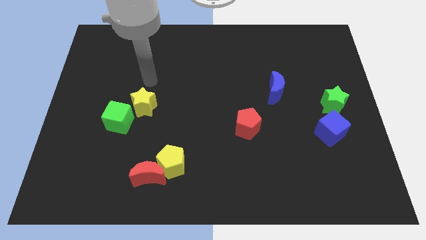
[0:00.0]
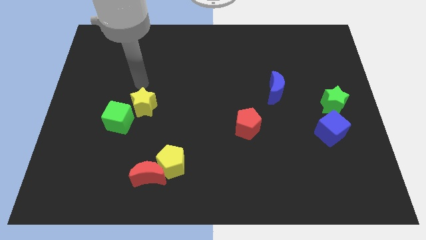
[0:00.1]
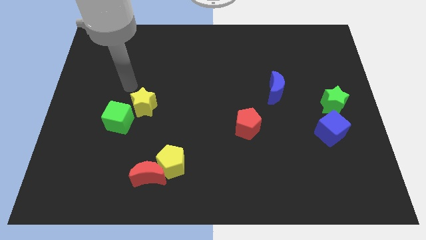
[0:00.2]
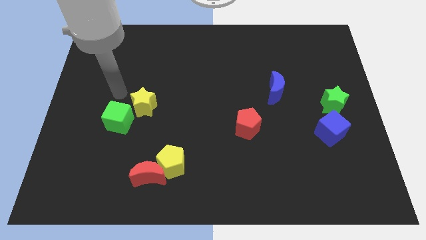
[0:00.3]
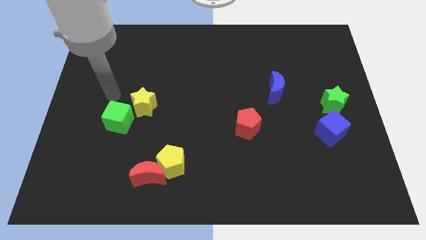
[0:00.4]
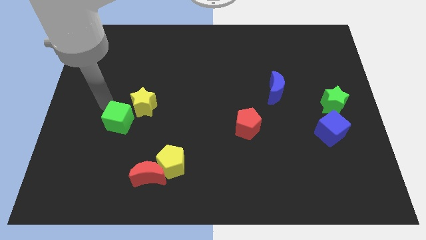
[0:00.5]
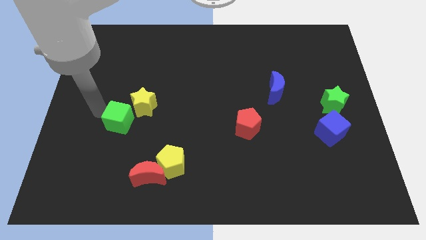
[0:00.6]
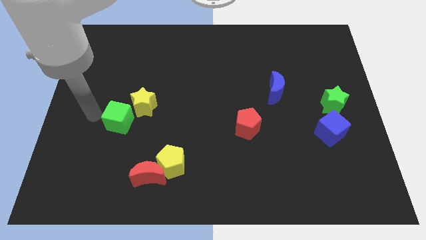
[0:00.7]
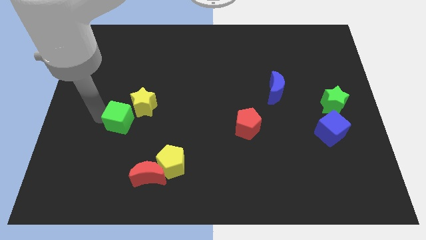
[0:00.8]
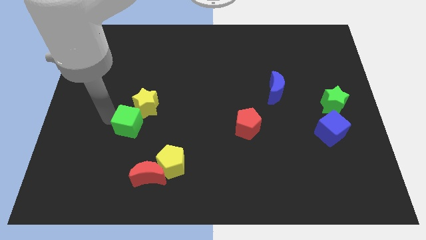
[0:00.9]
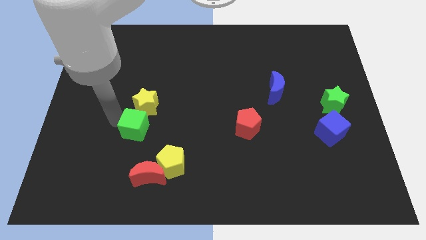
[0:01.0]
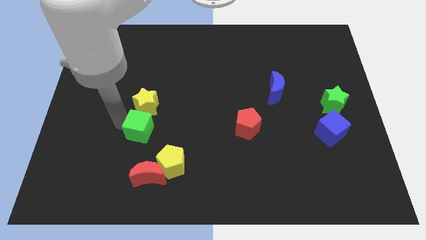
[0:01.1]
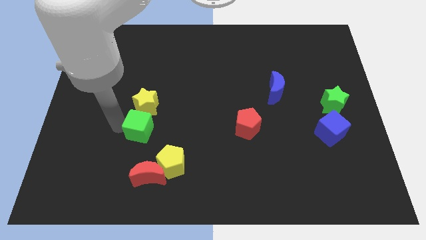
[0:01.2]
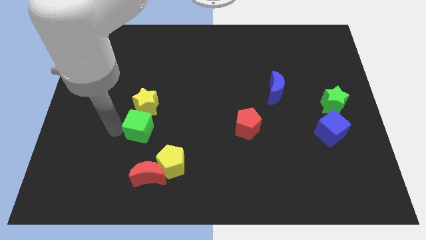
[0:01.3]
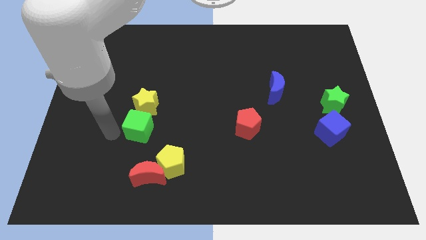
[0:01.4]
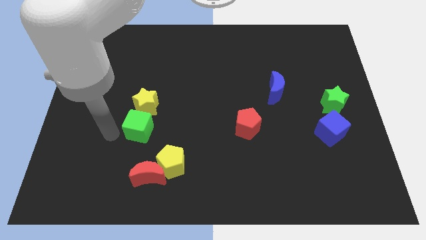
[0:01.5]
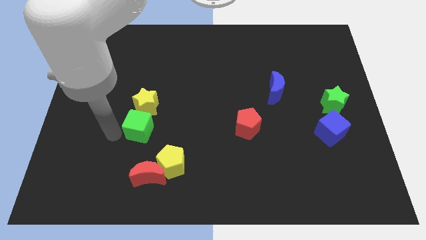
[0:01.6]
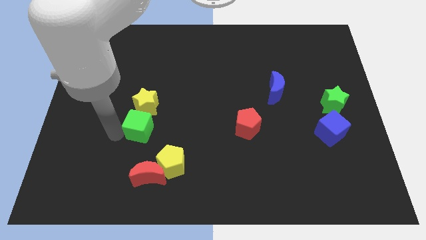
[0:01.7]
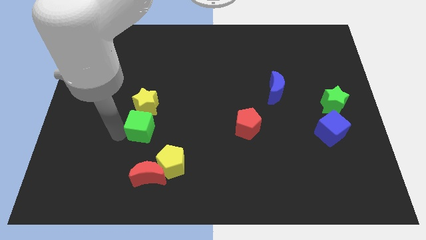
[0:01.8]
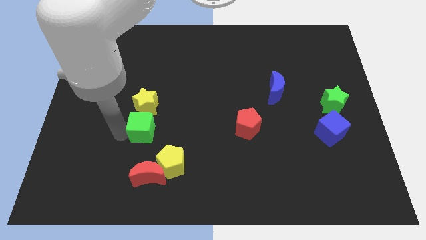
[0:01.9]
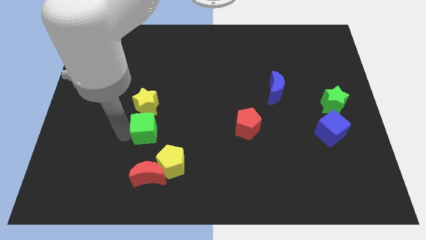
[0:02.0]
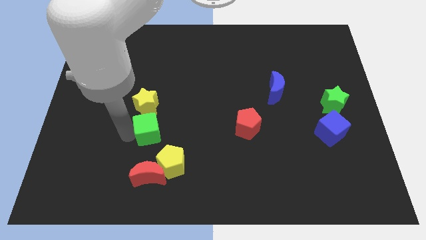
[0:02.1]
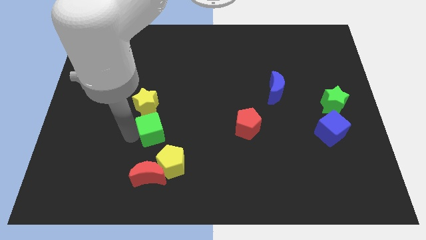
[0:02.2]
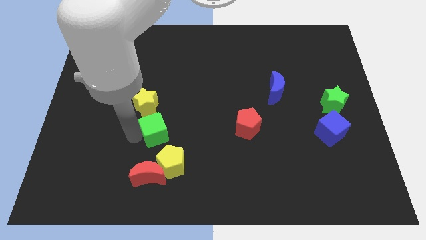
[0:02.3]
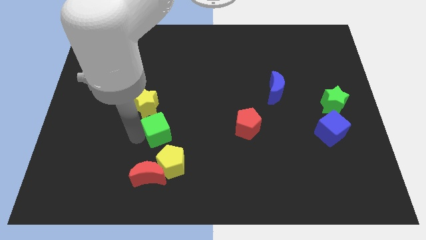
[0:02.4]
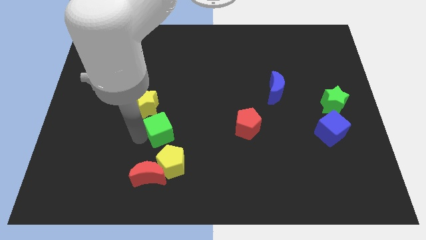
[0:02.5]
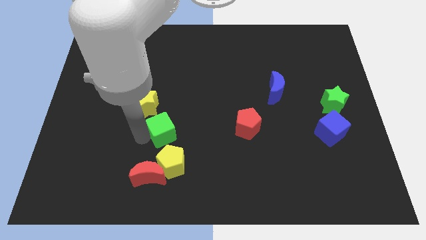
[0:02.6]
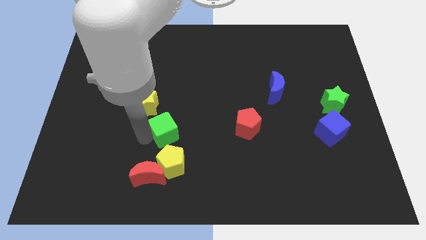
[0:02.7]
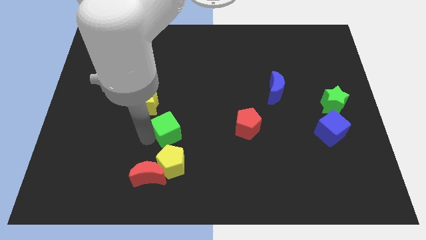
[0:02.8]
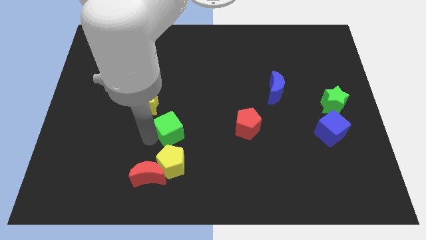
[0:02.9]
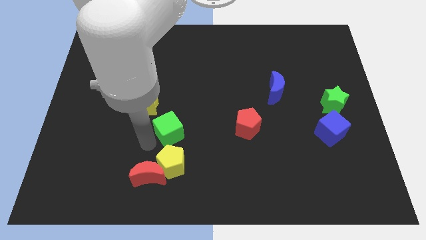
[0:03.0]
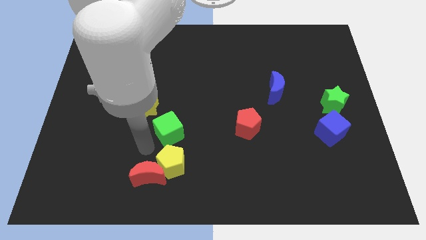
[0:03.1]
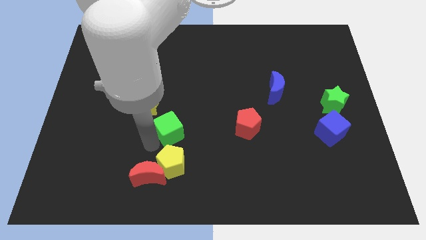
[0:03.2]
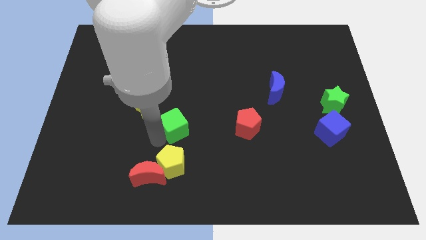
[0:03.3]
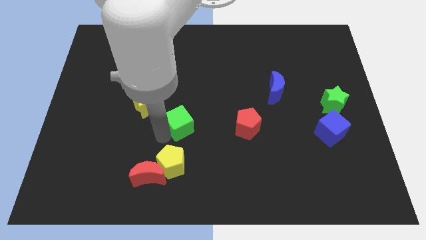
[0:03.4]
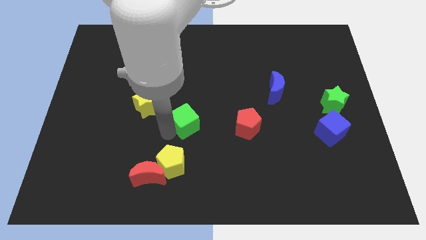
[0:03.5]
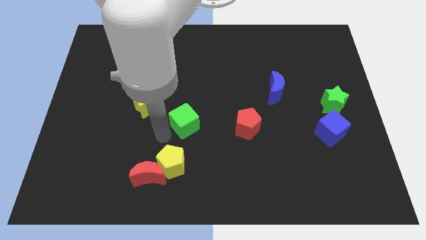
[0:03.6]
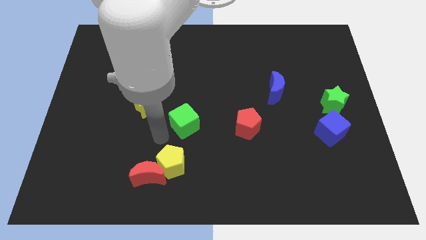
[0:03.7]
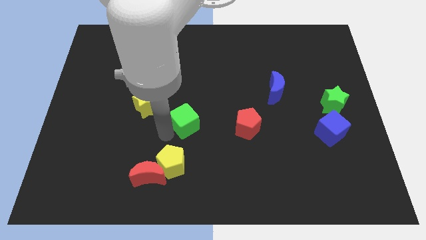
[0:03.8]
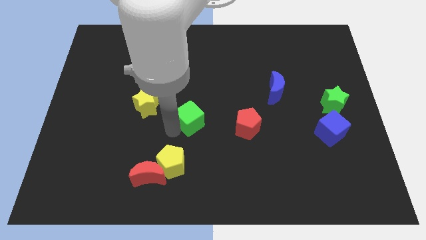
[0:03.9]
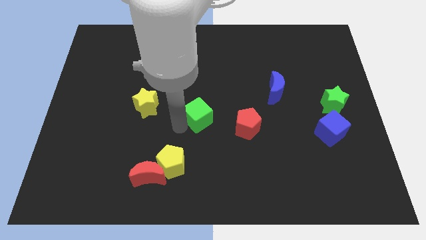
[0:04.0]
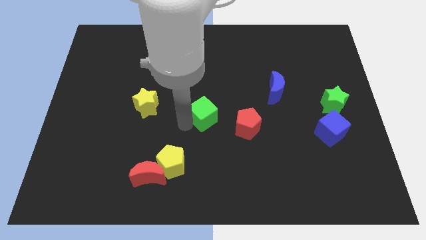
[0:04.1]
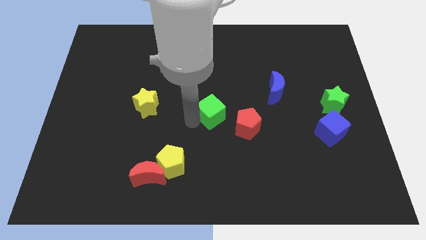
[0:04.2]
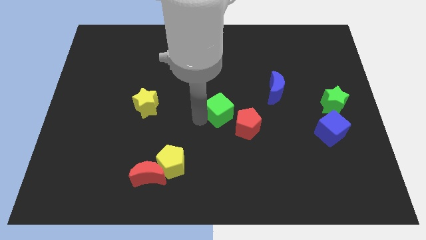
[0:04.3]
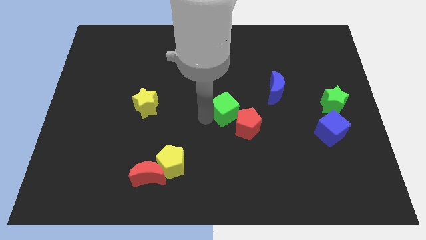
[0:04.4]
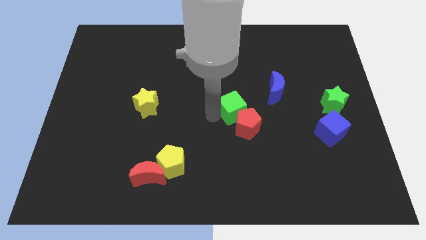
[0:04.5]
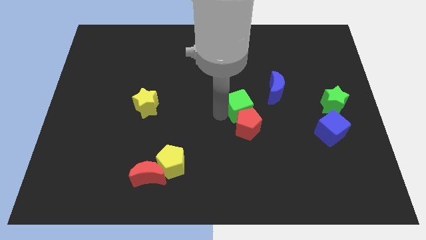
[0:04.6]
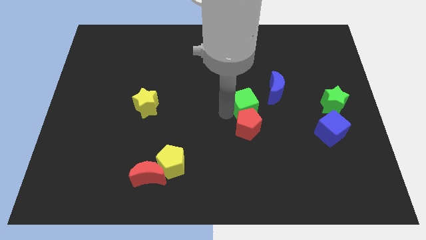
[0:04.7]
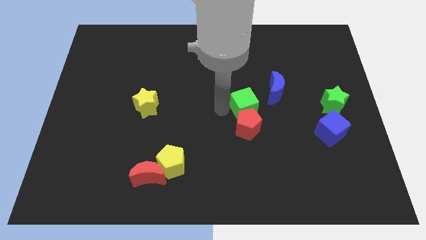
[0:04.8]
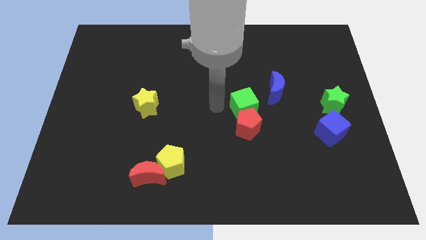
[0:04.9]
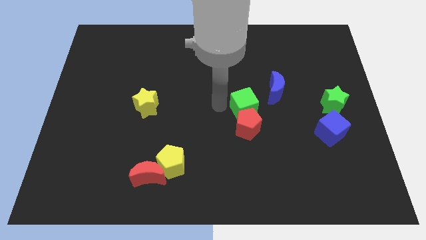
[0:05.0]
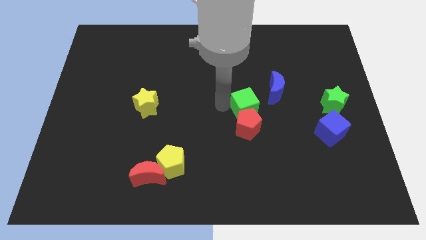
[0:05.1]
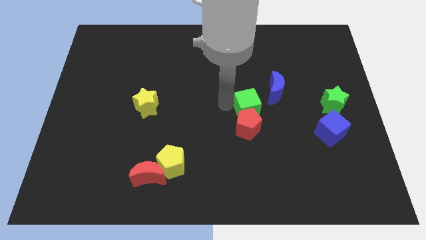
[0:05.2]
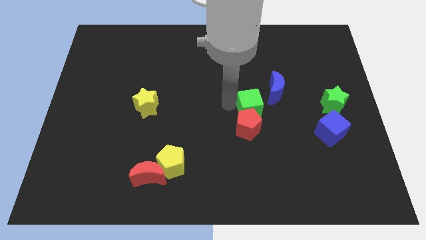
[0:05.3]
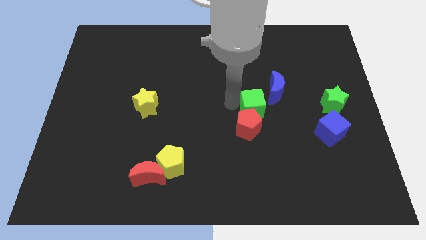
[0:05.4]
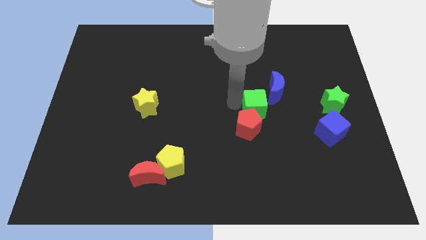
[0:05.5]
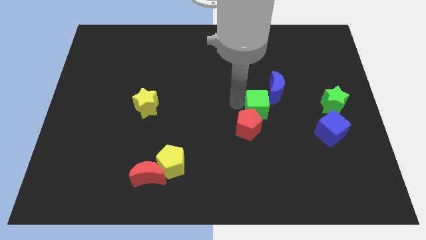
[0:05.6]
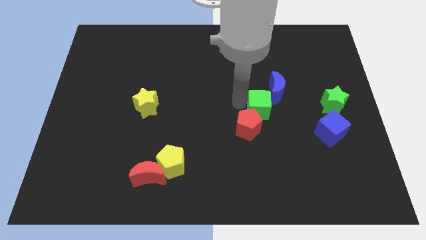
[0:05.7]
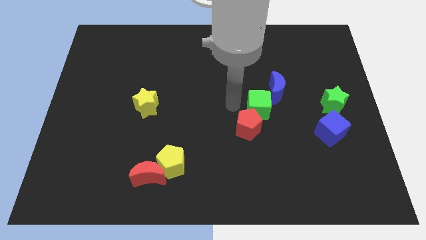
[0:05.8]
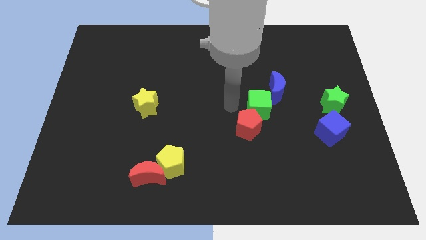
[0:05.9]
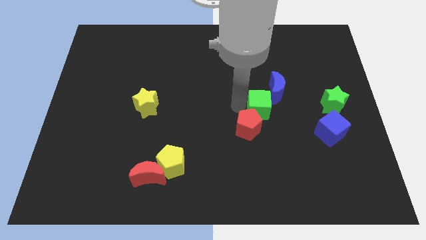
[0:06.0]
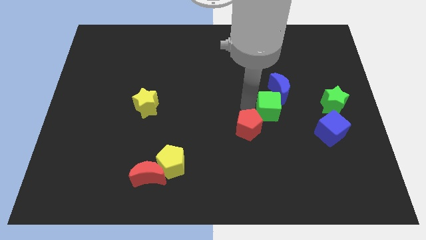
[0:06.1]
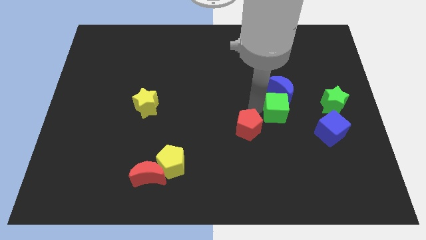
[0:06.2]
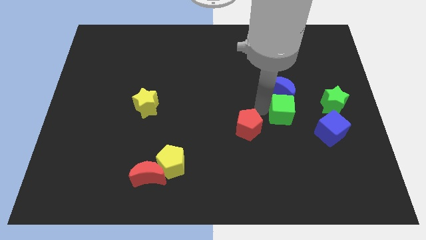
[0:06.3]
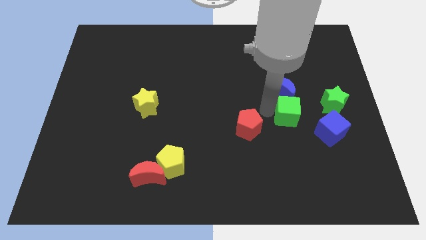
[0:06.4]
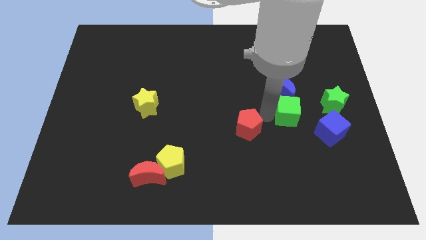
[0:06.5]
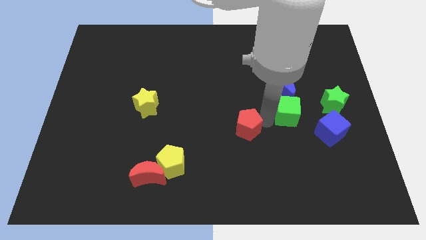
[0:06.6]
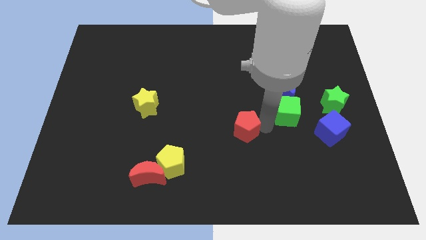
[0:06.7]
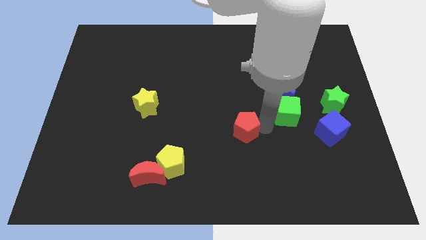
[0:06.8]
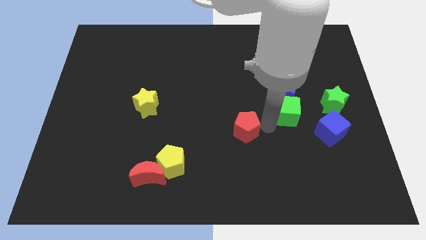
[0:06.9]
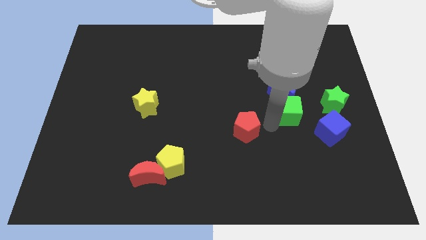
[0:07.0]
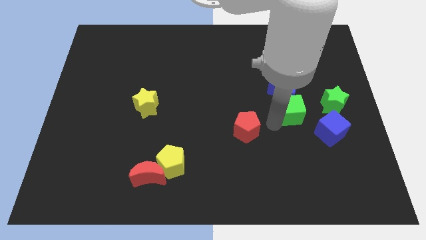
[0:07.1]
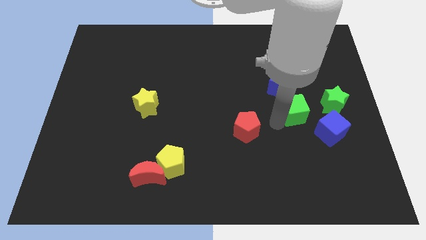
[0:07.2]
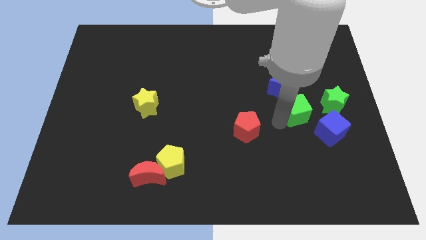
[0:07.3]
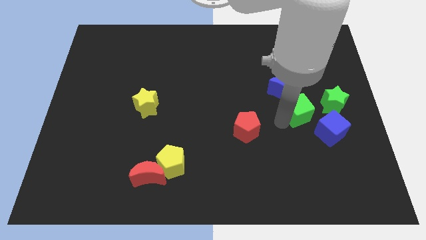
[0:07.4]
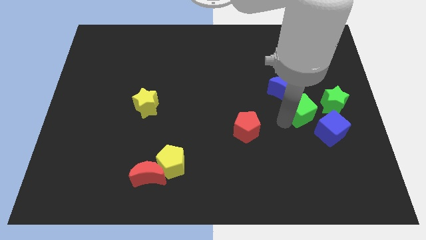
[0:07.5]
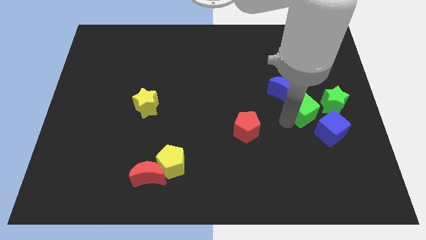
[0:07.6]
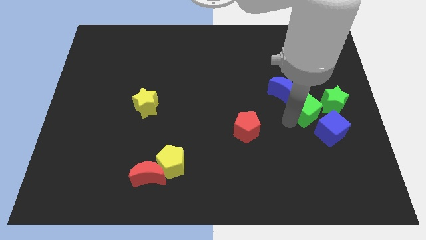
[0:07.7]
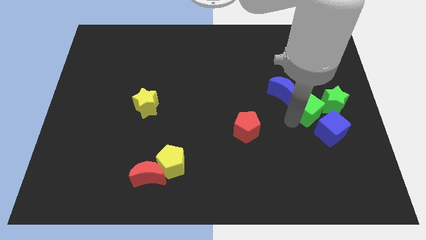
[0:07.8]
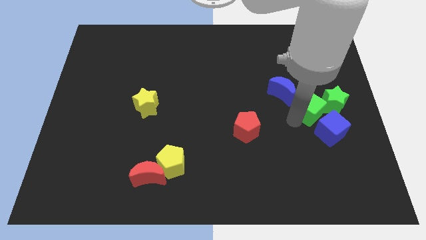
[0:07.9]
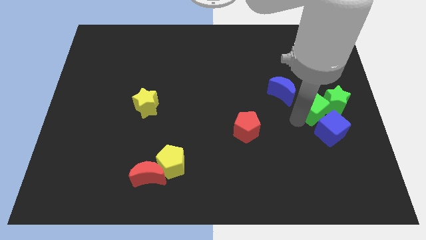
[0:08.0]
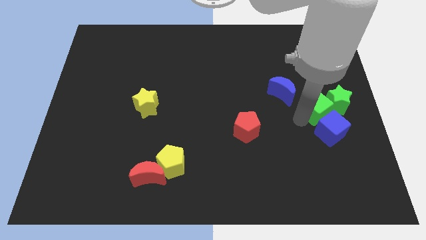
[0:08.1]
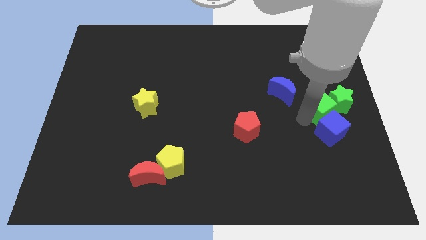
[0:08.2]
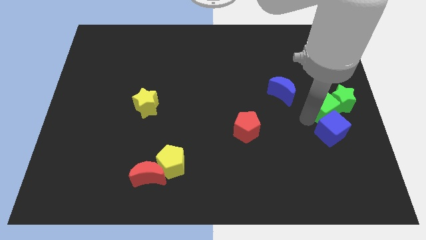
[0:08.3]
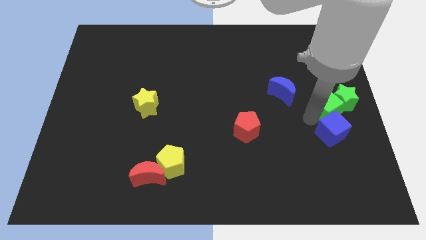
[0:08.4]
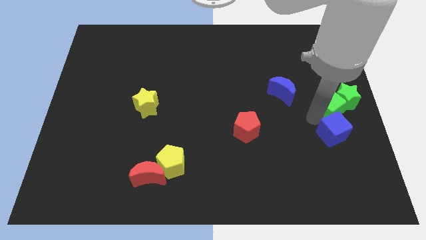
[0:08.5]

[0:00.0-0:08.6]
move the green cube to the right of the blue moon
